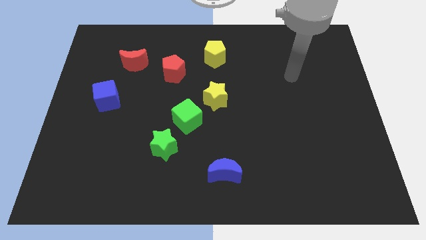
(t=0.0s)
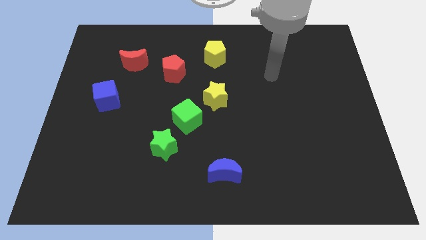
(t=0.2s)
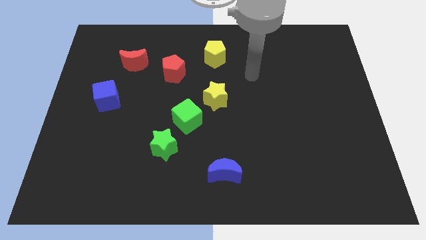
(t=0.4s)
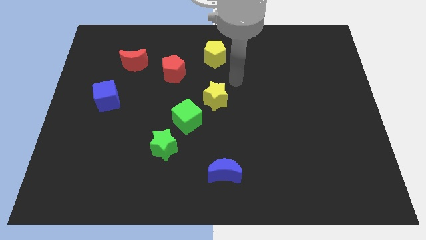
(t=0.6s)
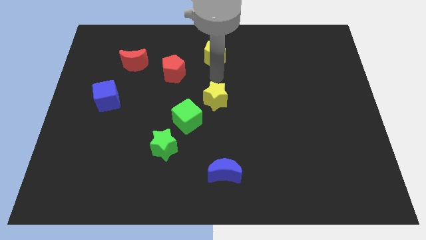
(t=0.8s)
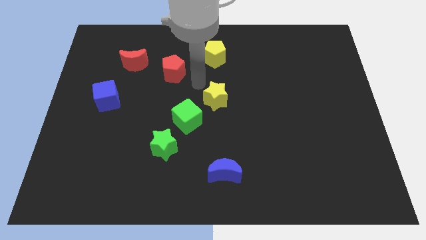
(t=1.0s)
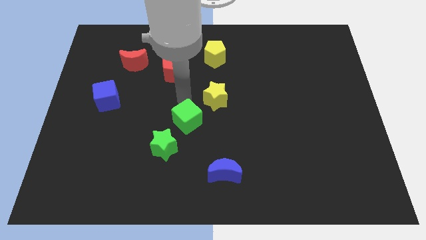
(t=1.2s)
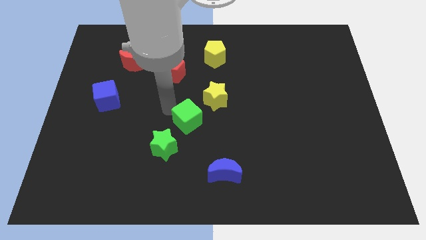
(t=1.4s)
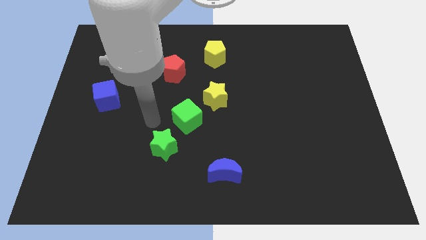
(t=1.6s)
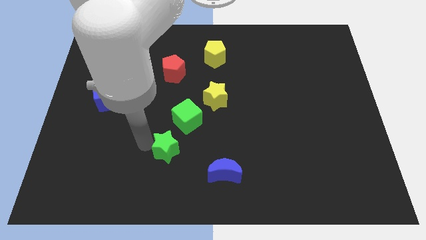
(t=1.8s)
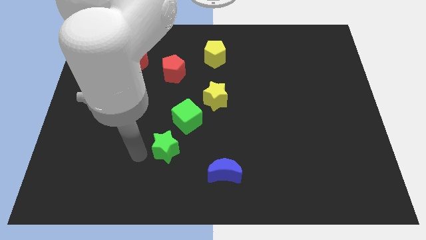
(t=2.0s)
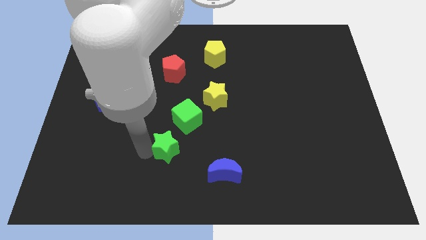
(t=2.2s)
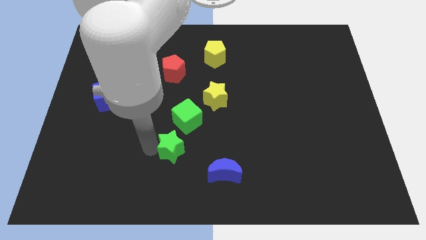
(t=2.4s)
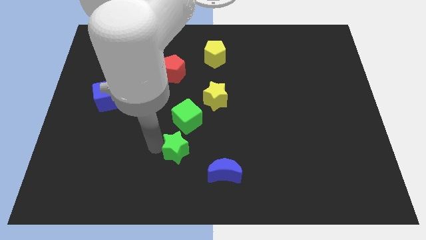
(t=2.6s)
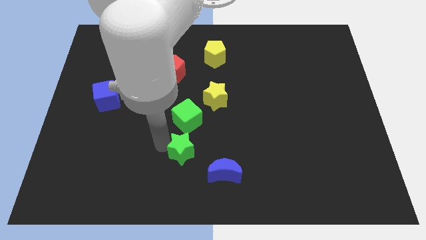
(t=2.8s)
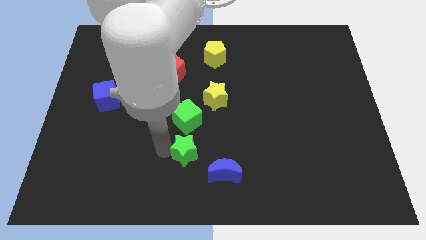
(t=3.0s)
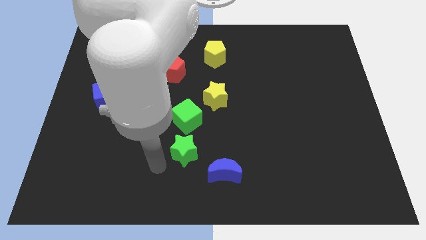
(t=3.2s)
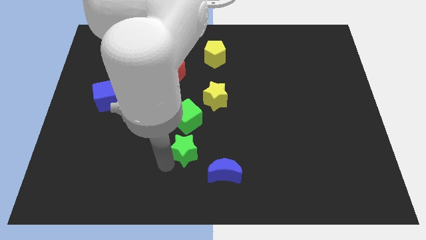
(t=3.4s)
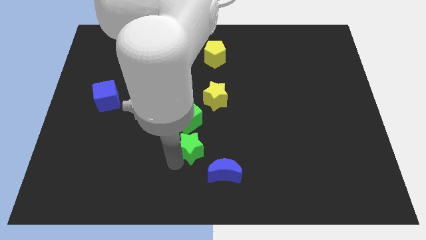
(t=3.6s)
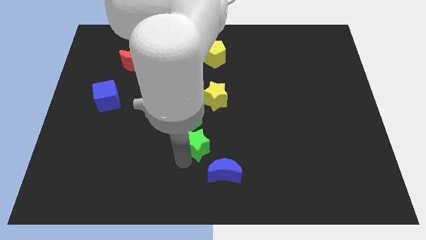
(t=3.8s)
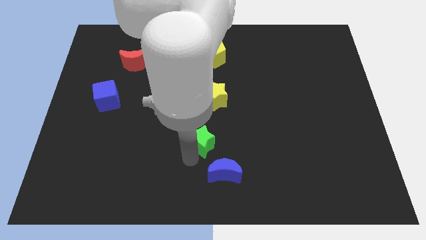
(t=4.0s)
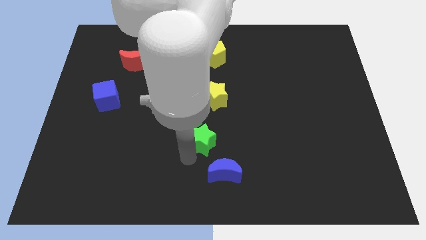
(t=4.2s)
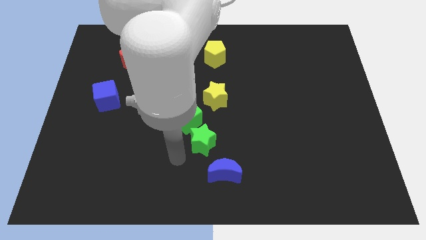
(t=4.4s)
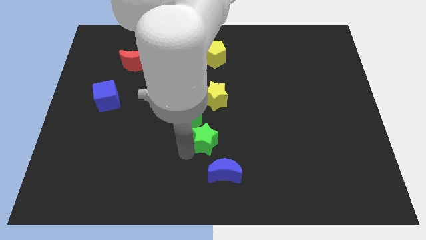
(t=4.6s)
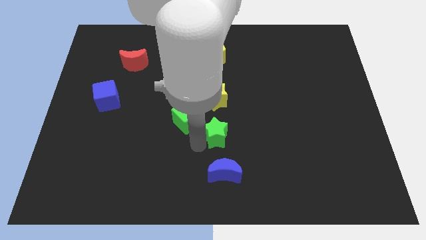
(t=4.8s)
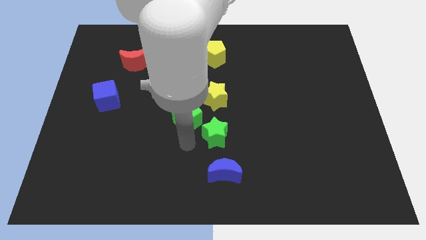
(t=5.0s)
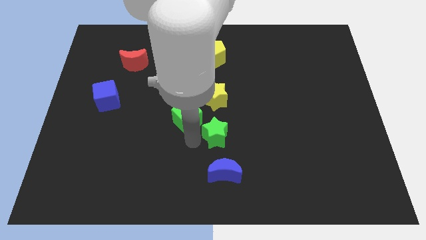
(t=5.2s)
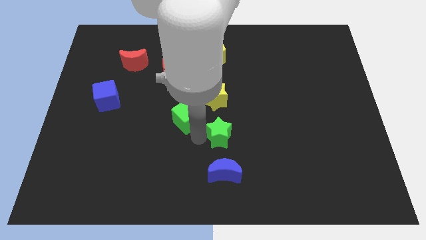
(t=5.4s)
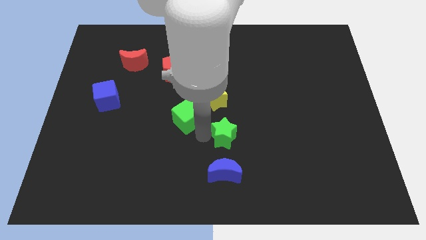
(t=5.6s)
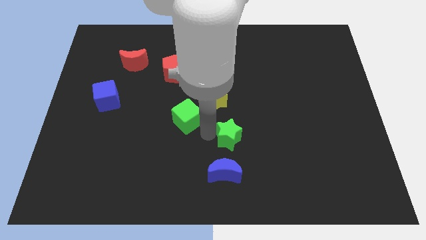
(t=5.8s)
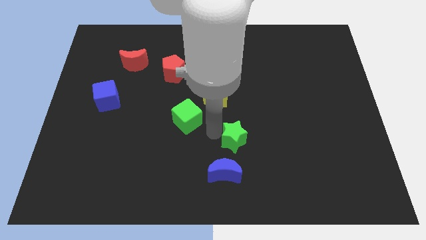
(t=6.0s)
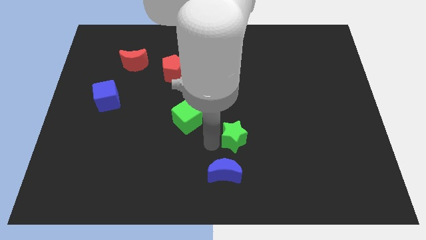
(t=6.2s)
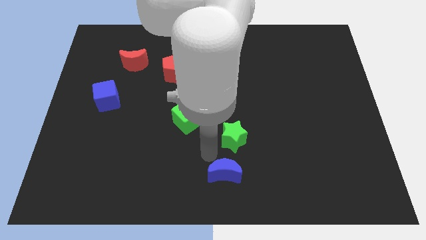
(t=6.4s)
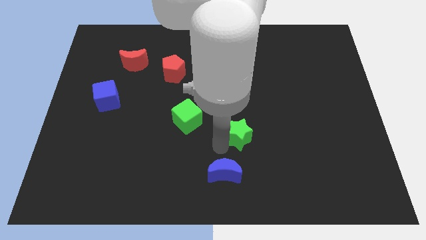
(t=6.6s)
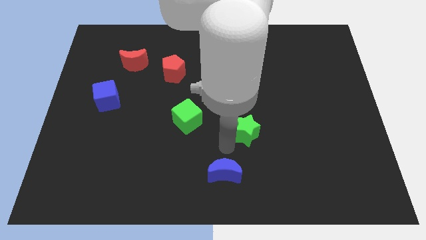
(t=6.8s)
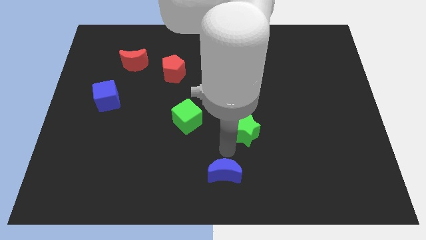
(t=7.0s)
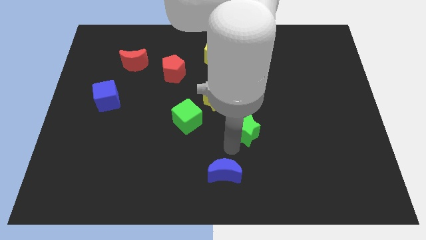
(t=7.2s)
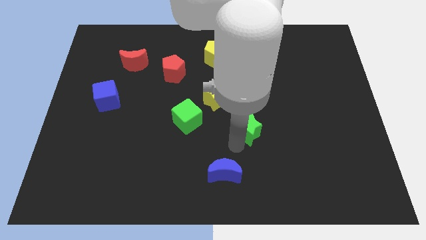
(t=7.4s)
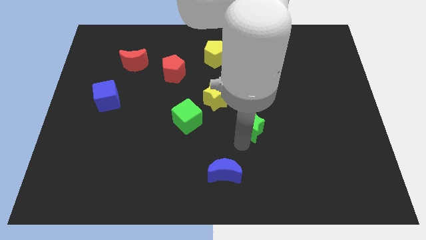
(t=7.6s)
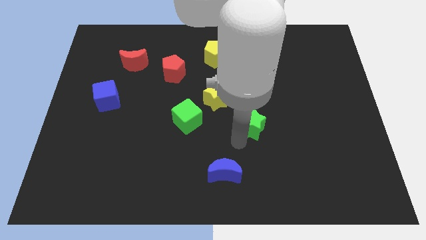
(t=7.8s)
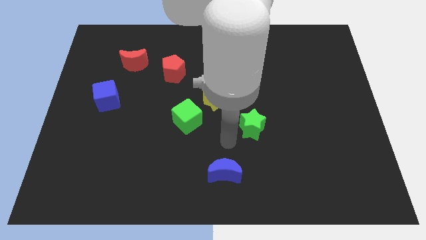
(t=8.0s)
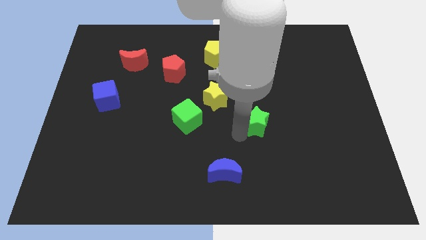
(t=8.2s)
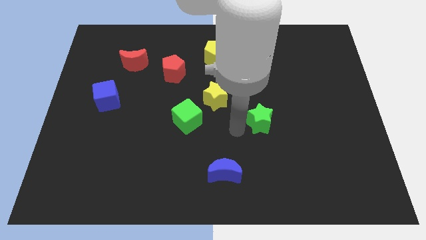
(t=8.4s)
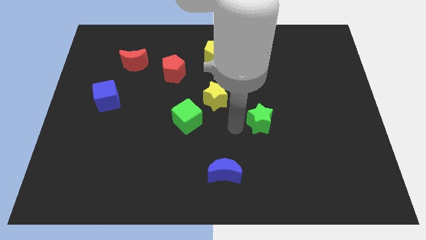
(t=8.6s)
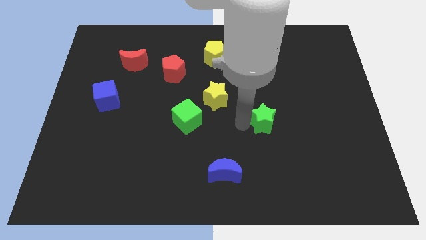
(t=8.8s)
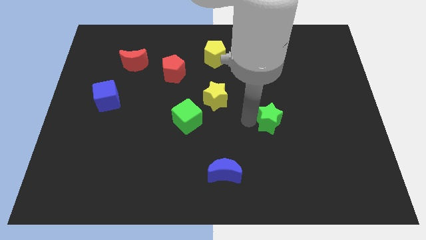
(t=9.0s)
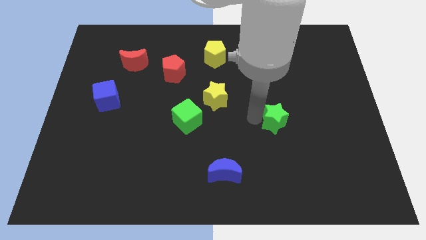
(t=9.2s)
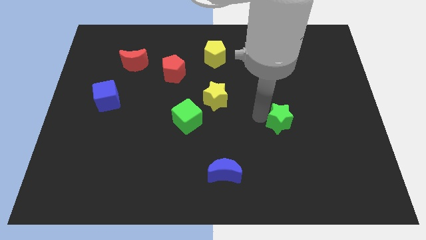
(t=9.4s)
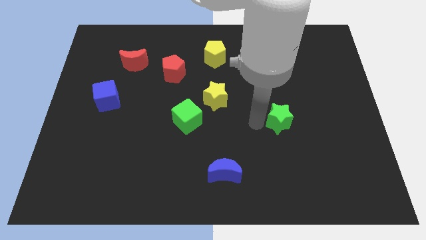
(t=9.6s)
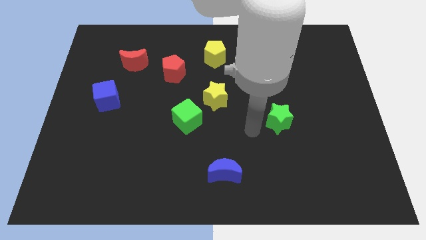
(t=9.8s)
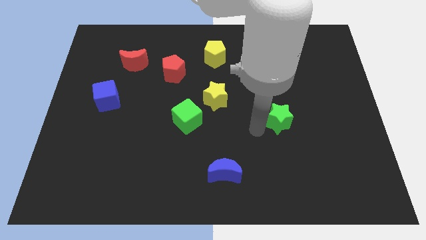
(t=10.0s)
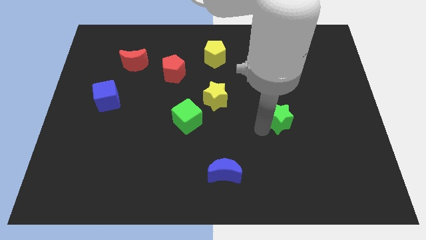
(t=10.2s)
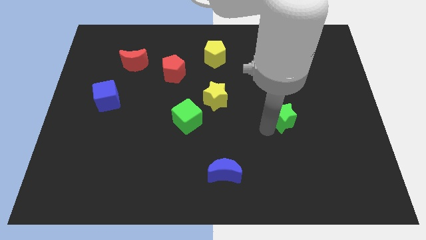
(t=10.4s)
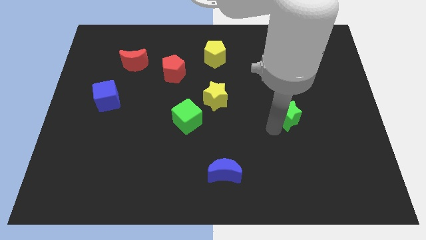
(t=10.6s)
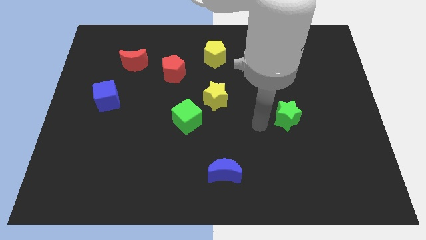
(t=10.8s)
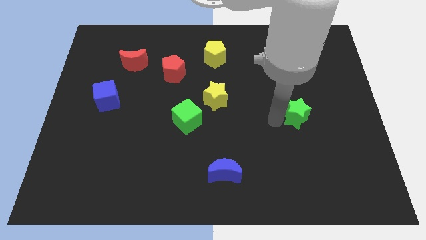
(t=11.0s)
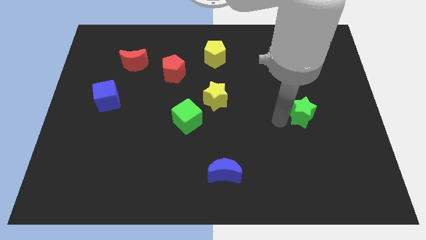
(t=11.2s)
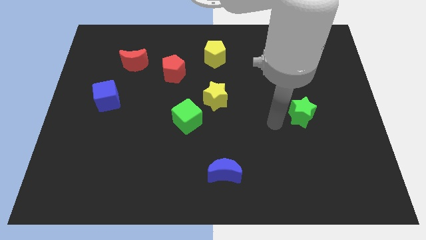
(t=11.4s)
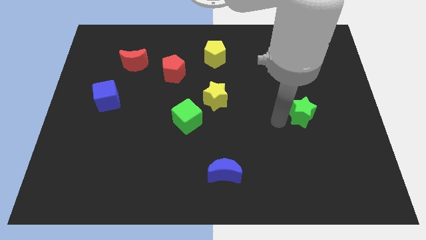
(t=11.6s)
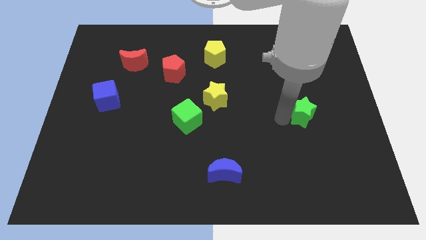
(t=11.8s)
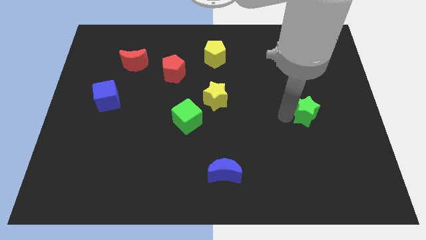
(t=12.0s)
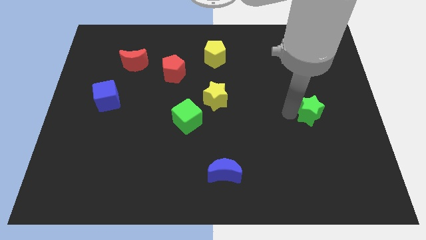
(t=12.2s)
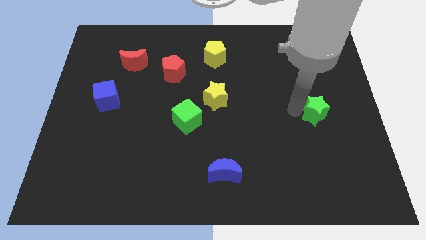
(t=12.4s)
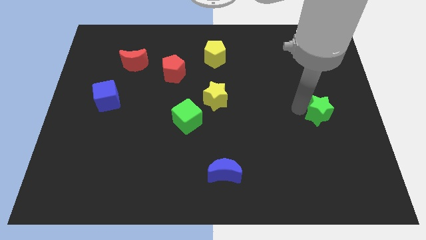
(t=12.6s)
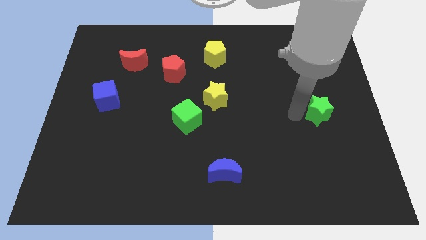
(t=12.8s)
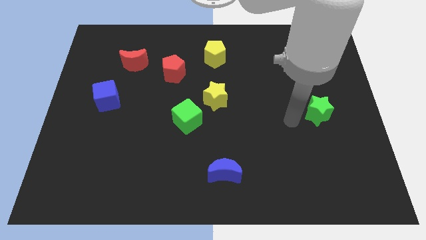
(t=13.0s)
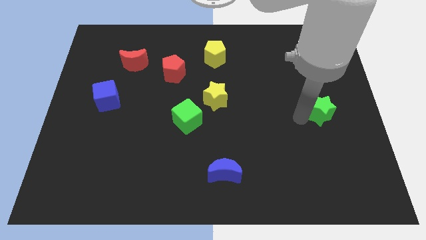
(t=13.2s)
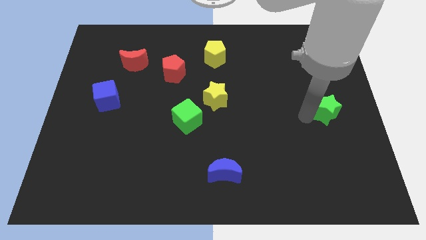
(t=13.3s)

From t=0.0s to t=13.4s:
put the green star to the right side of the board
